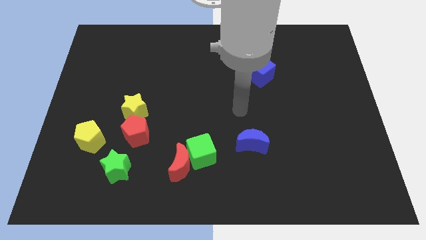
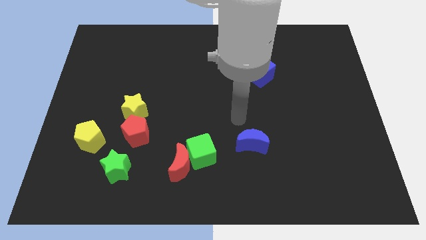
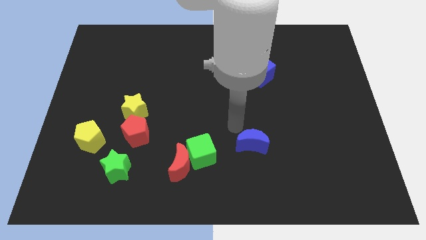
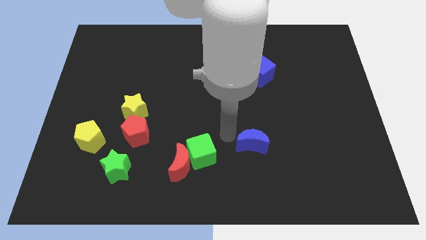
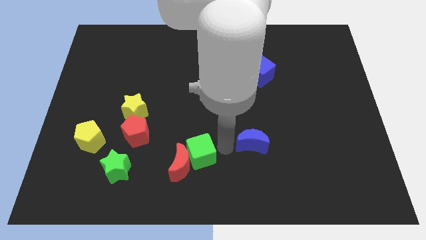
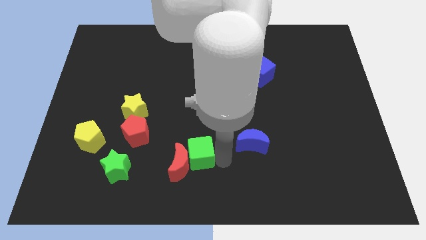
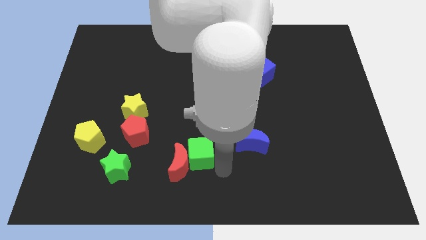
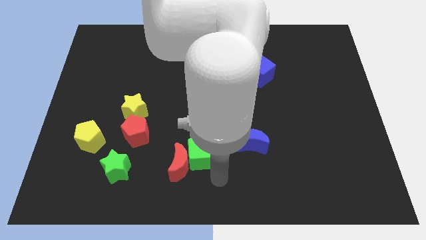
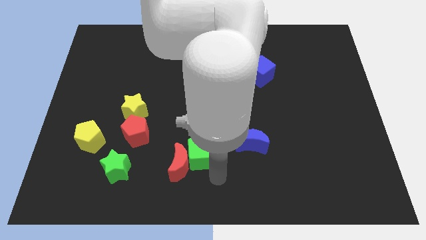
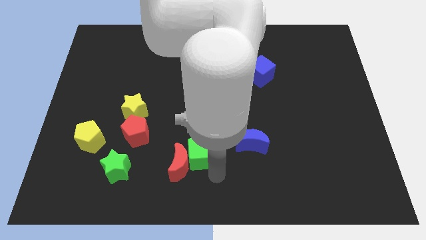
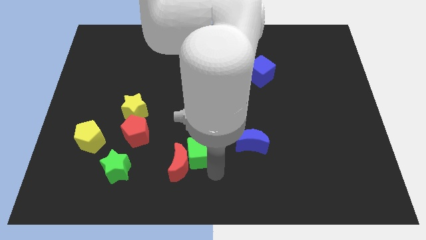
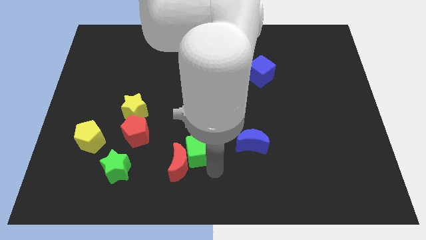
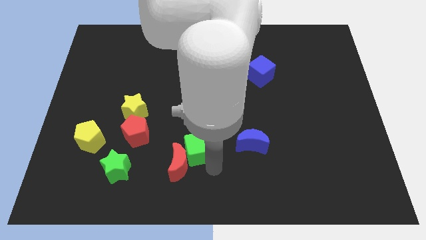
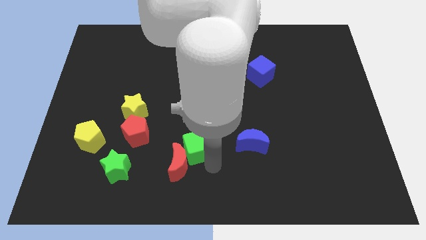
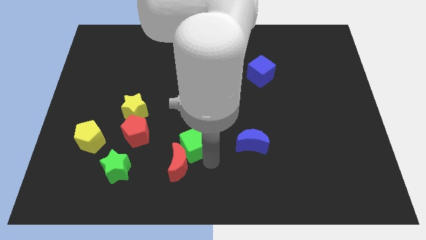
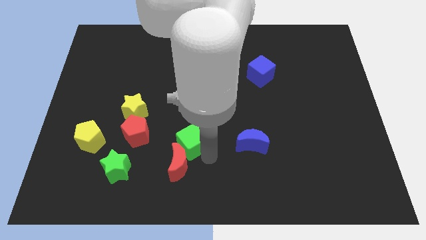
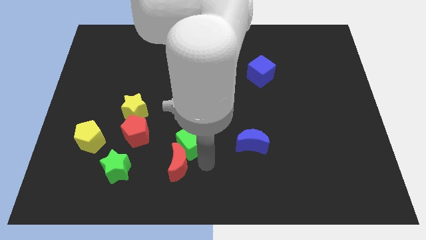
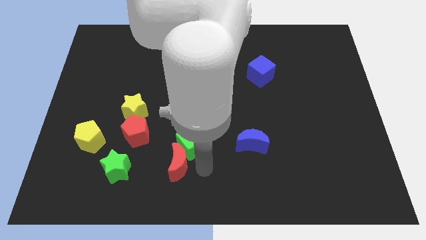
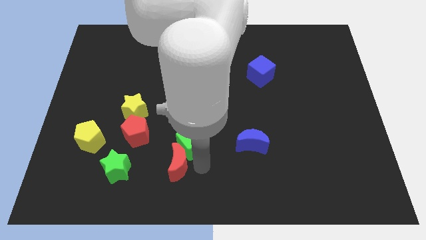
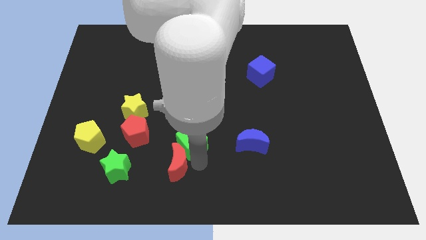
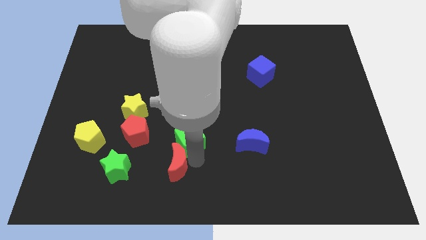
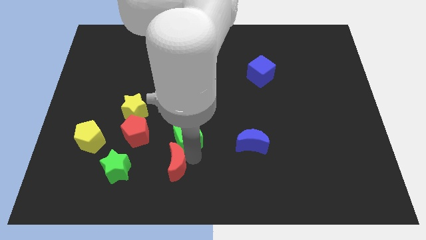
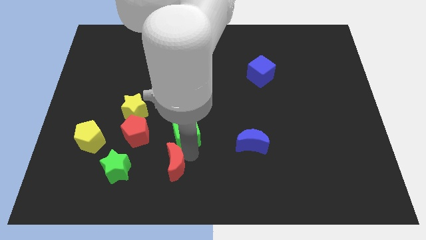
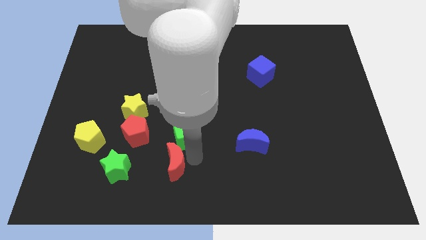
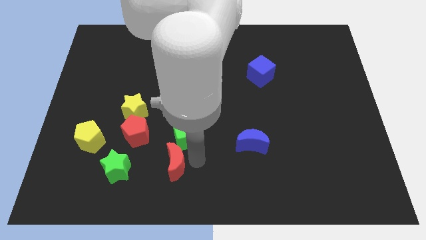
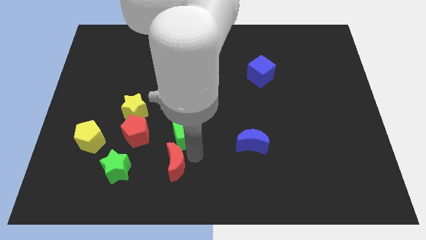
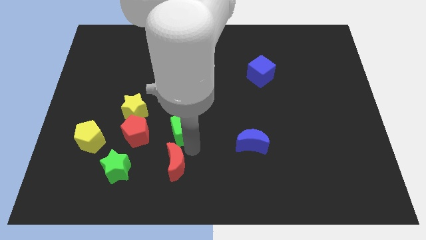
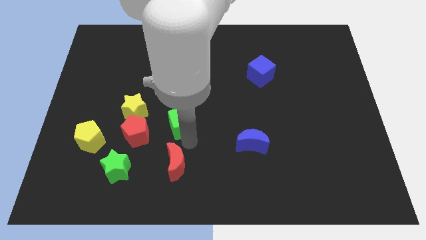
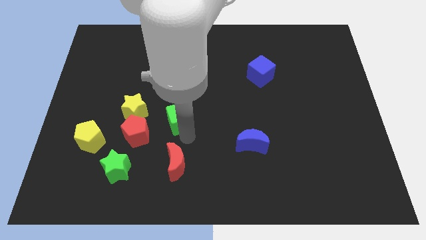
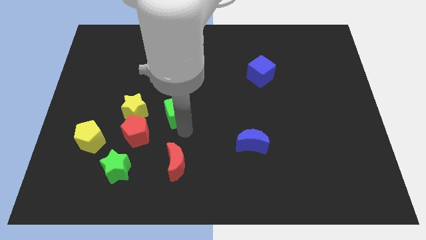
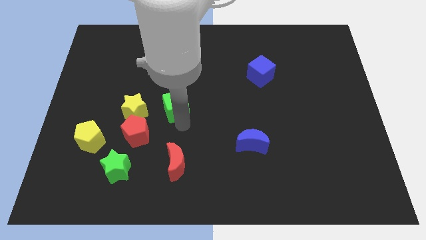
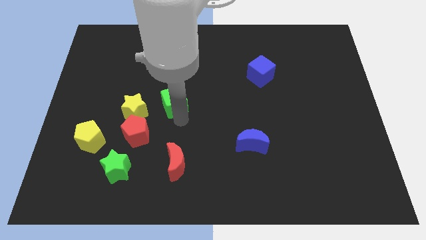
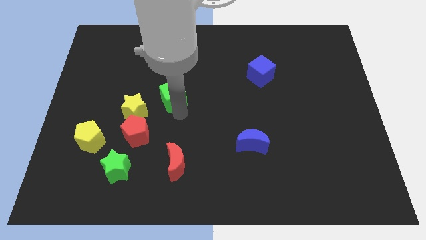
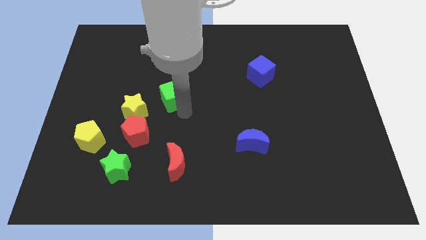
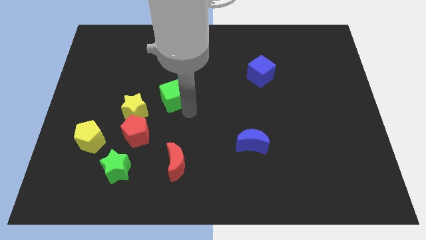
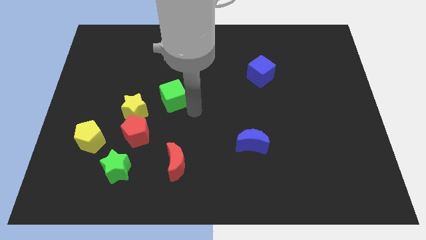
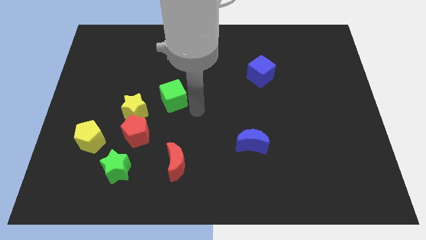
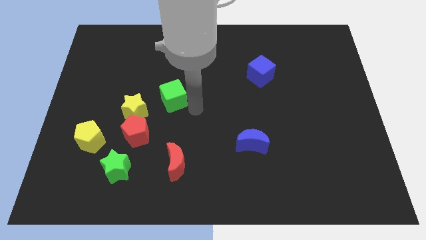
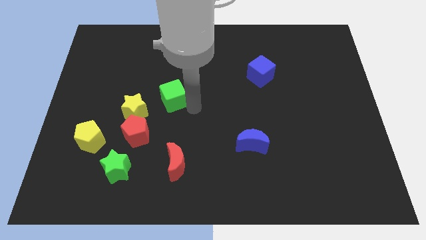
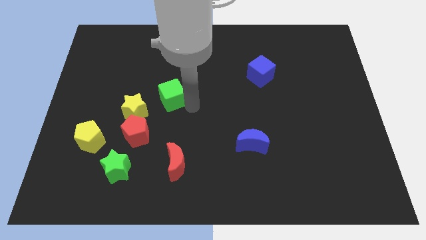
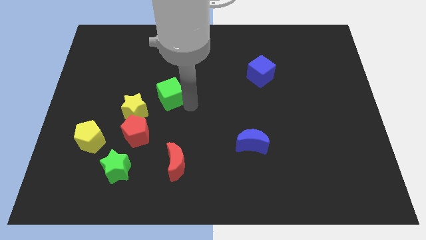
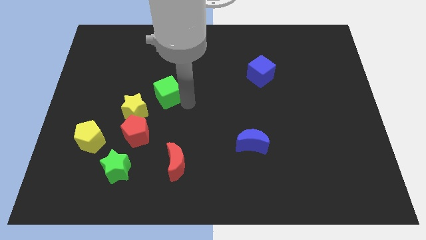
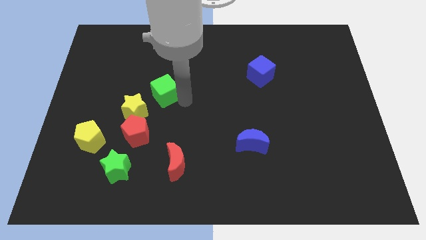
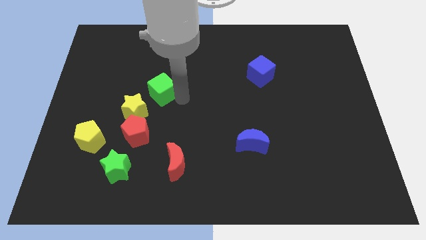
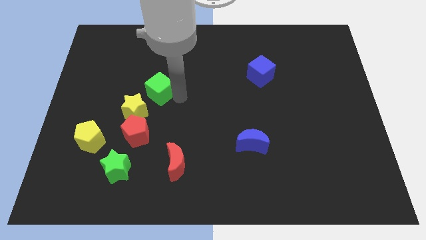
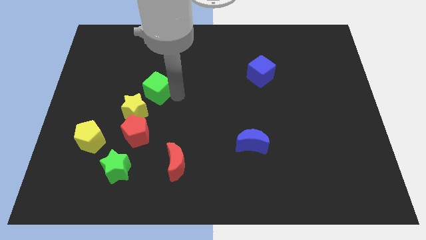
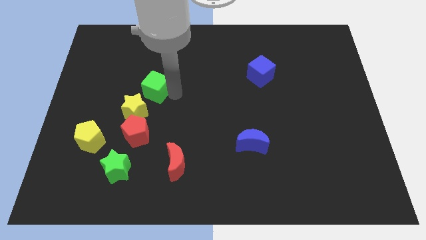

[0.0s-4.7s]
push the green cube diagonally up and to the left

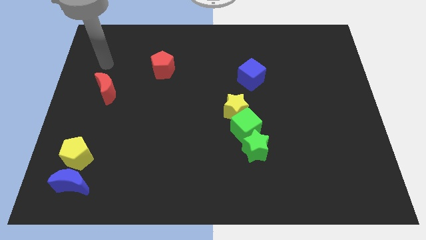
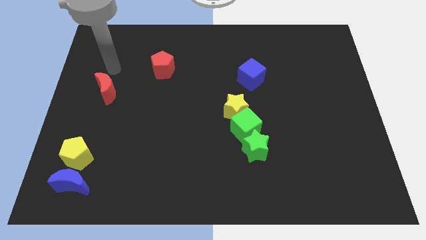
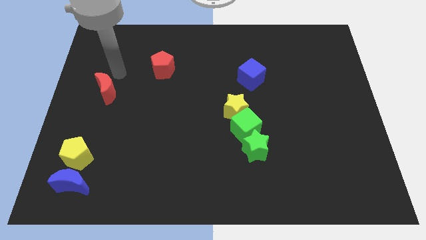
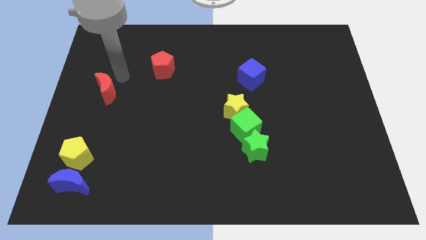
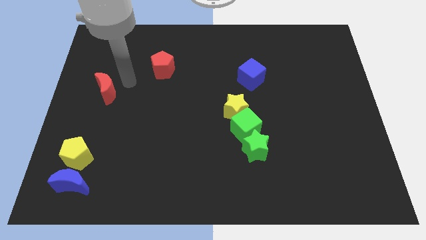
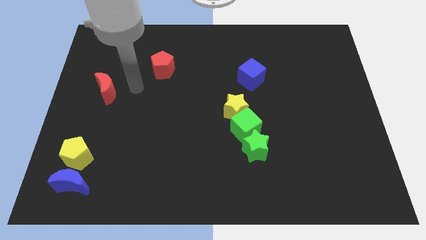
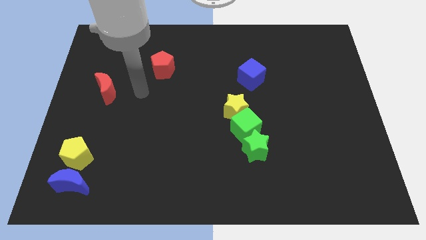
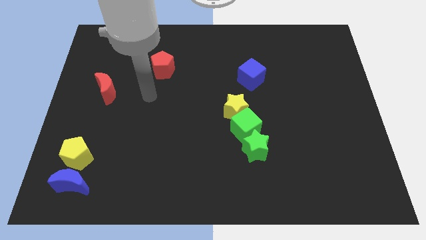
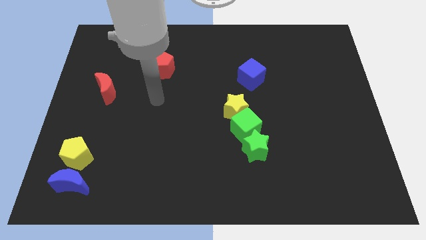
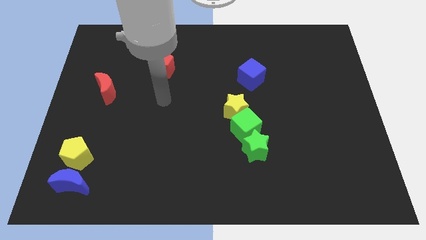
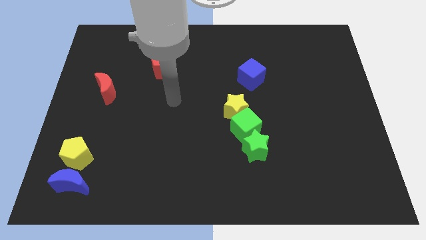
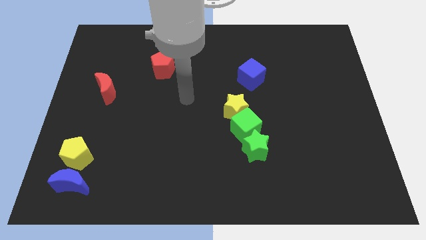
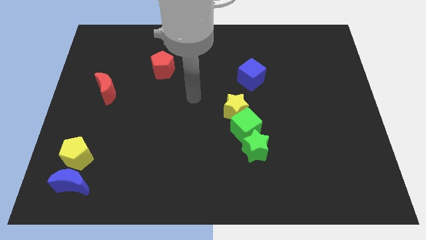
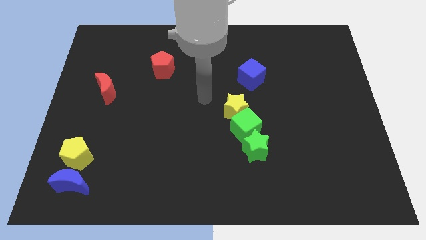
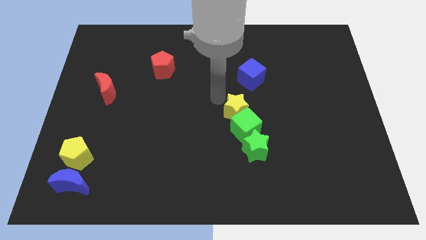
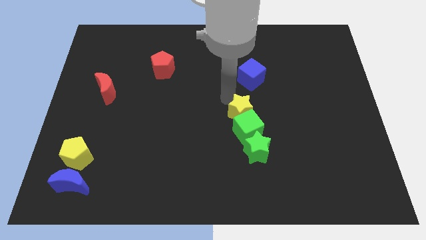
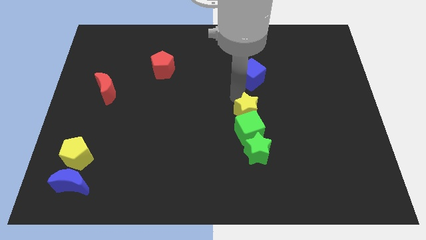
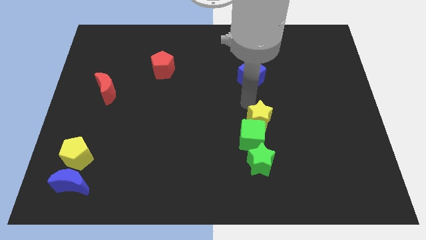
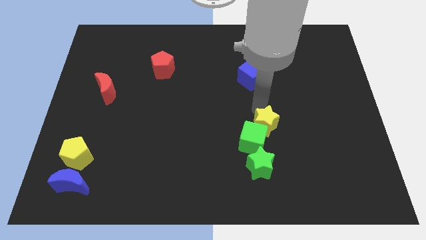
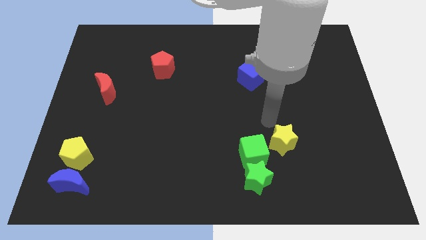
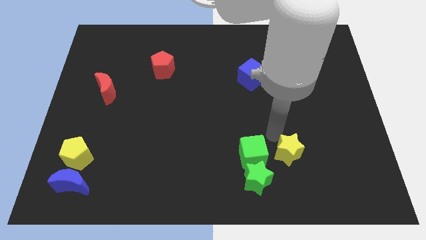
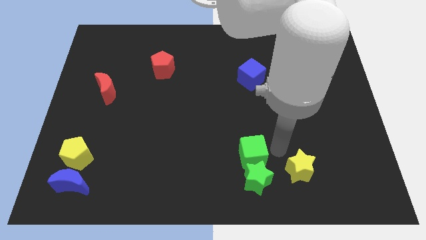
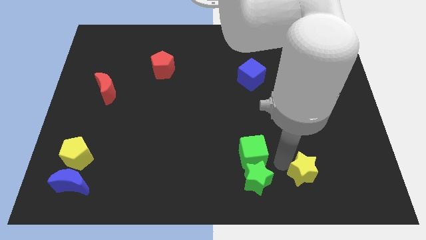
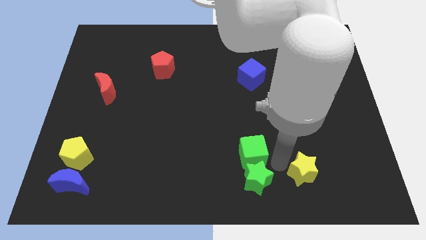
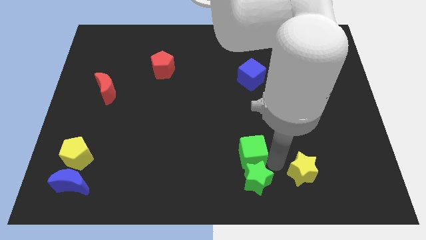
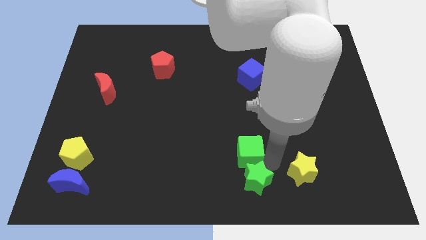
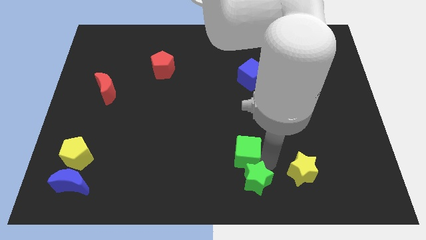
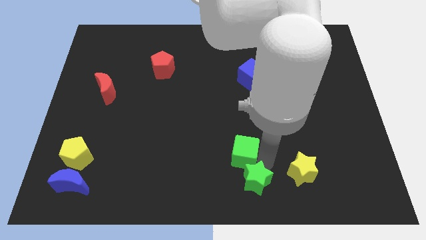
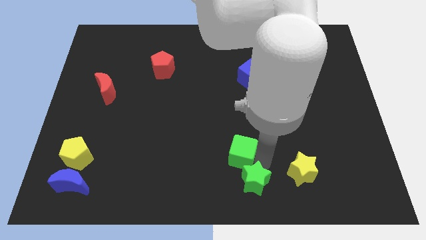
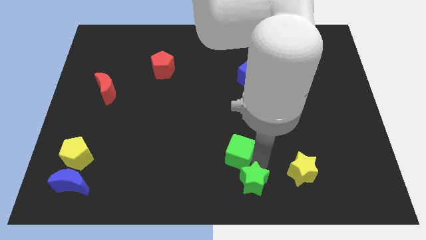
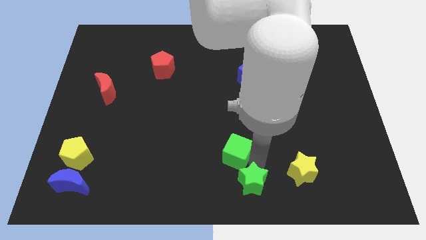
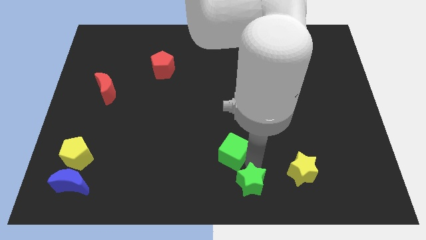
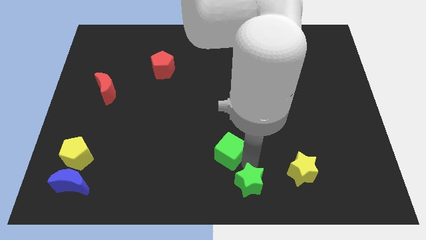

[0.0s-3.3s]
slide the green cube downwards and then left somewhat

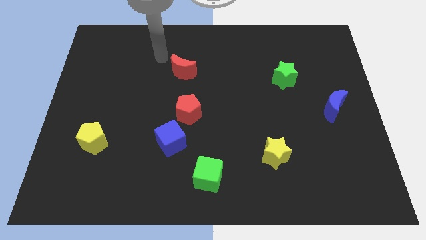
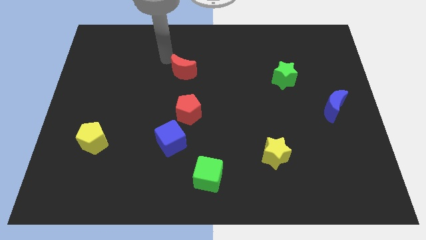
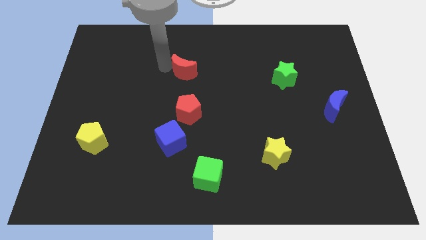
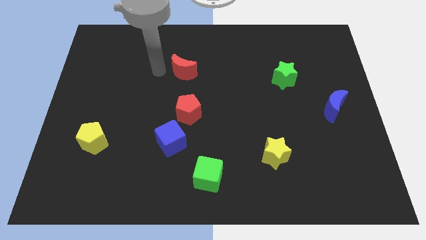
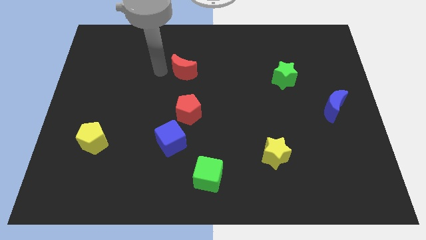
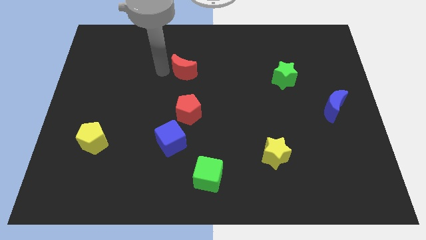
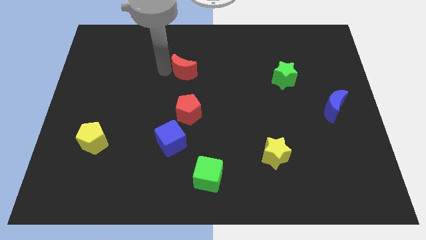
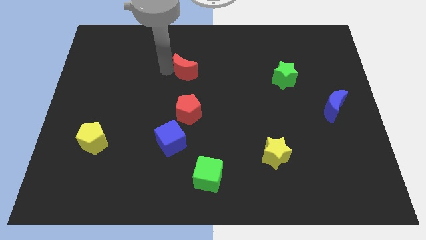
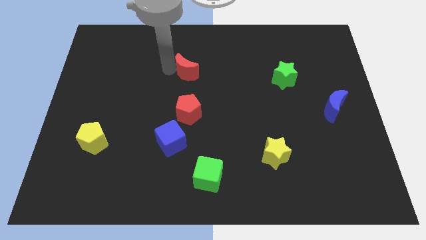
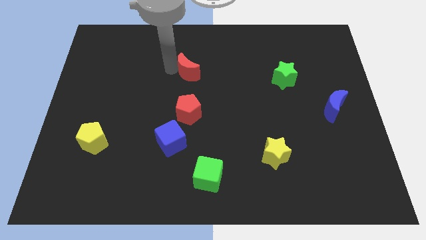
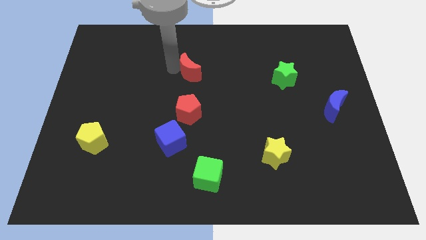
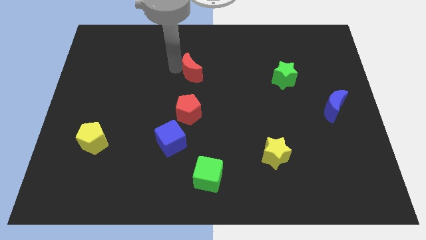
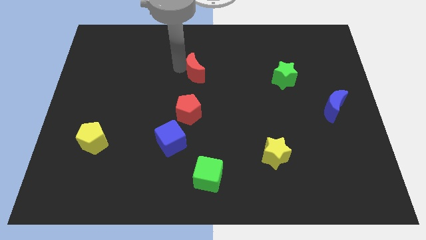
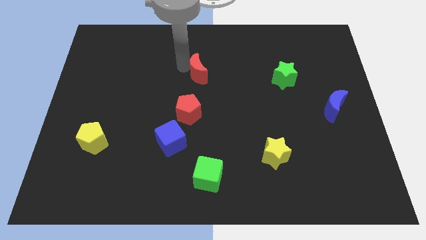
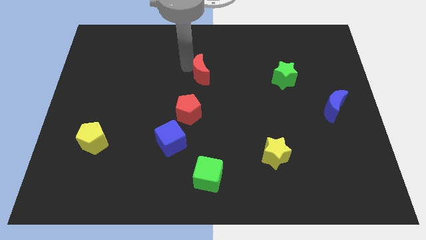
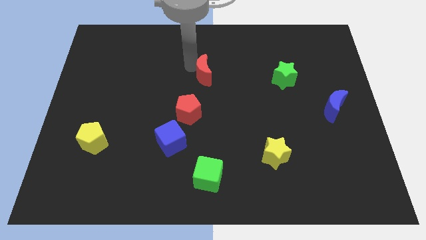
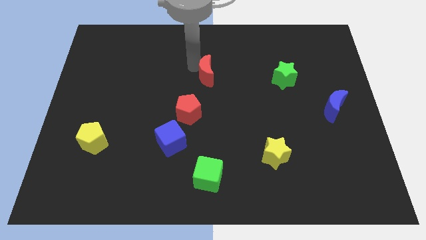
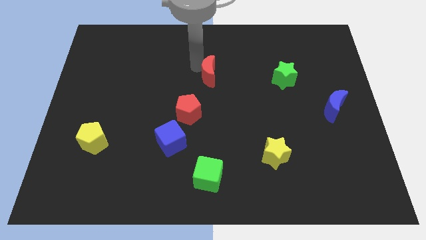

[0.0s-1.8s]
push the red moon to the right slightly
